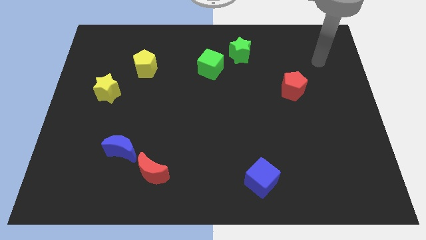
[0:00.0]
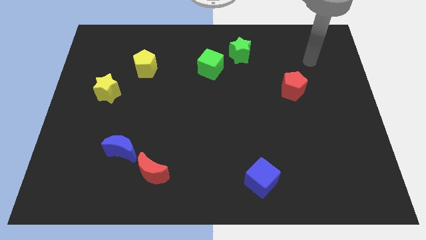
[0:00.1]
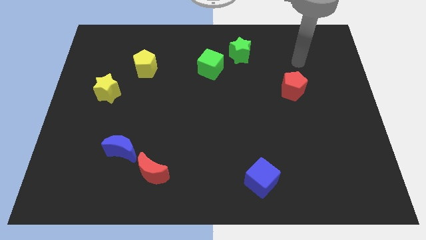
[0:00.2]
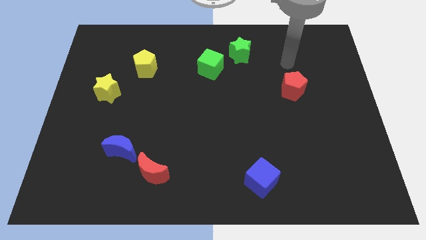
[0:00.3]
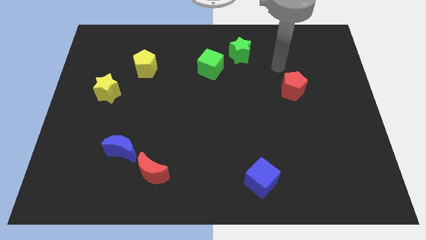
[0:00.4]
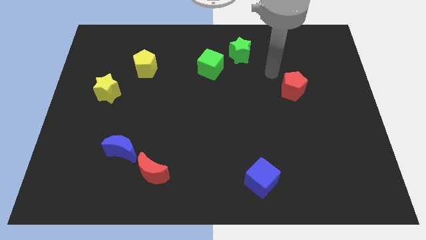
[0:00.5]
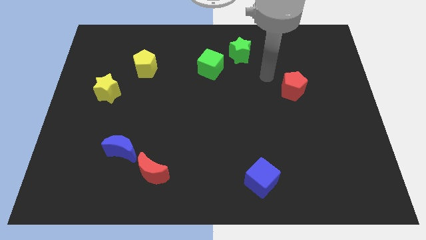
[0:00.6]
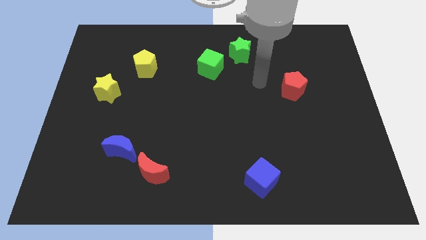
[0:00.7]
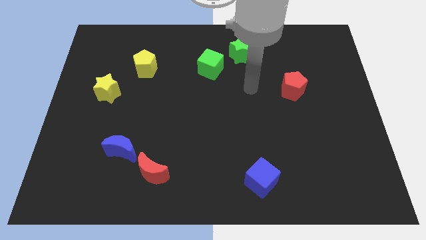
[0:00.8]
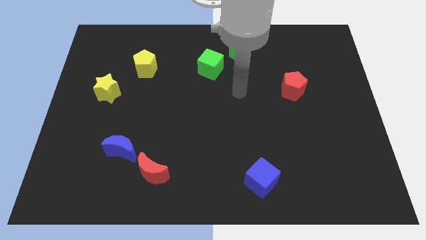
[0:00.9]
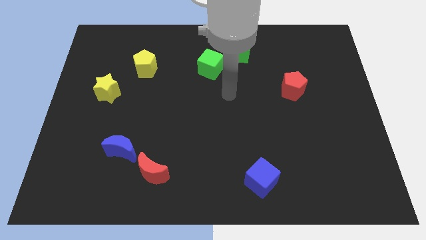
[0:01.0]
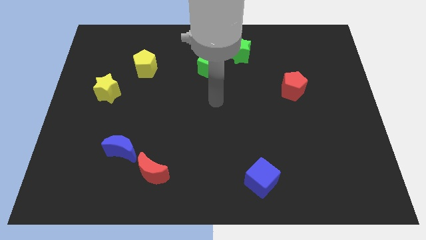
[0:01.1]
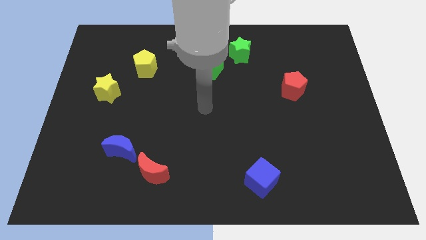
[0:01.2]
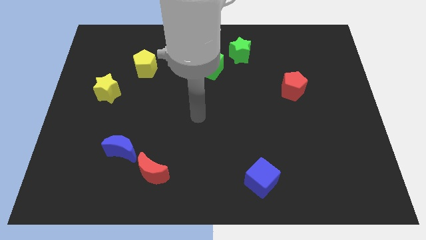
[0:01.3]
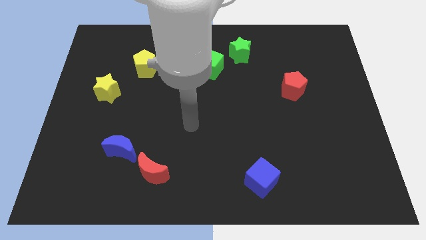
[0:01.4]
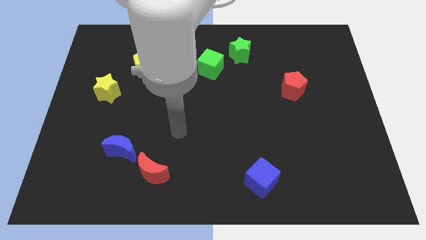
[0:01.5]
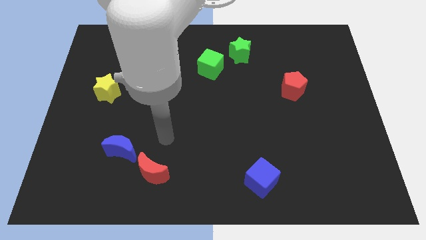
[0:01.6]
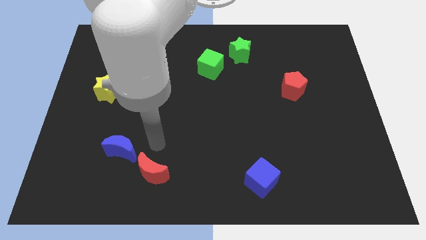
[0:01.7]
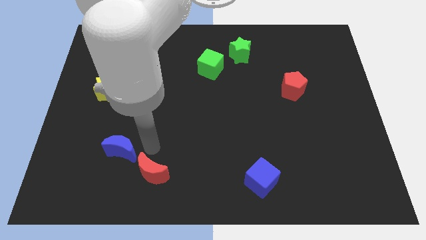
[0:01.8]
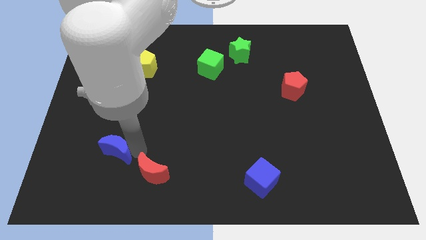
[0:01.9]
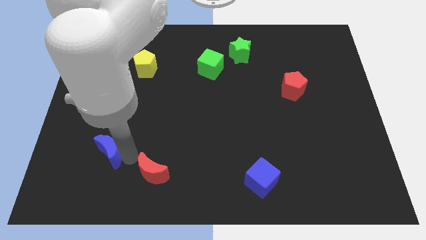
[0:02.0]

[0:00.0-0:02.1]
separate the red moon from the blue moon

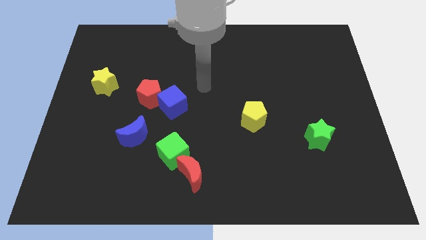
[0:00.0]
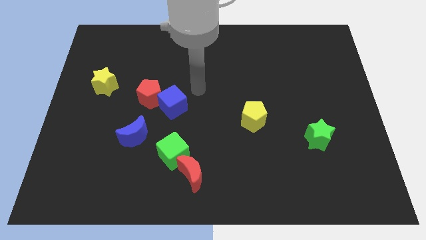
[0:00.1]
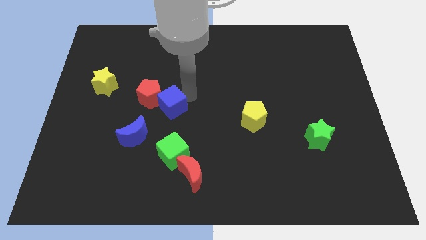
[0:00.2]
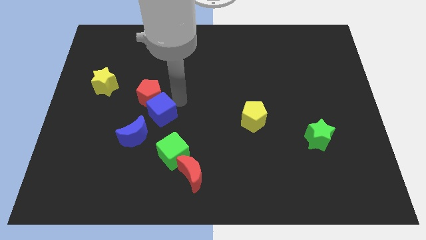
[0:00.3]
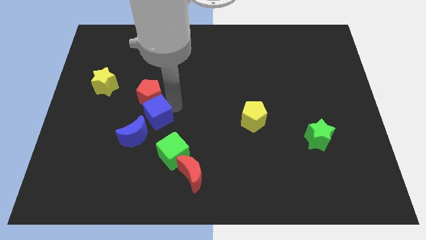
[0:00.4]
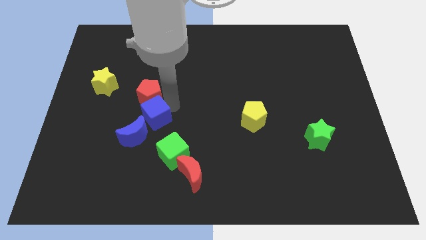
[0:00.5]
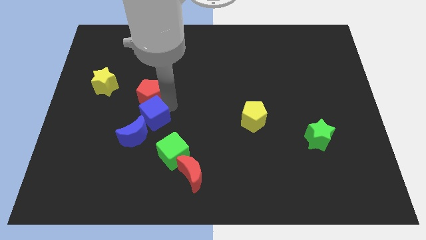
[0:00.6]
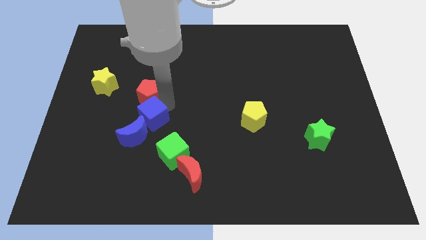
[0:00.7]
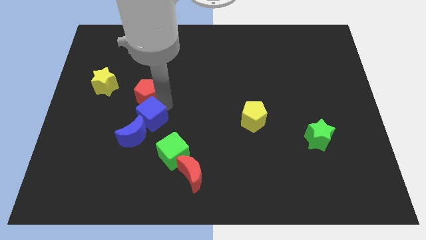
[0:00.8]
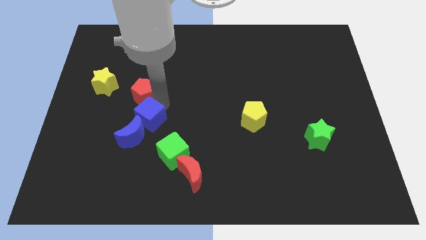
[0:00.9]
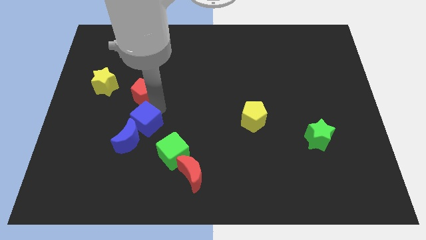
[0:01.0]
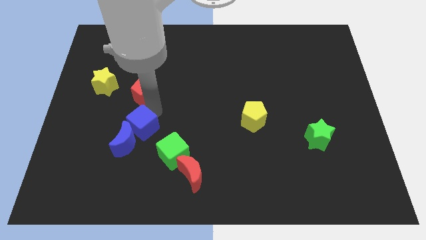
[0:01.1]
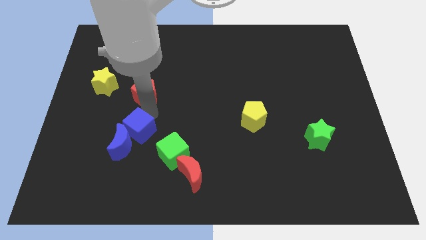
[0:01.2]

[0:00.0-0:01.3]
move the red pentagon away from the blue cube

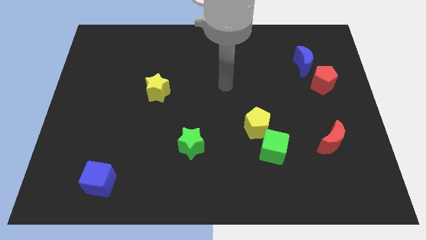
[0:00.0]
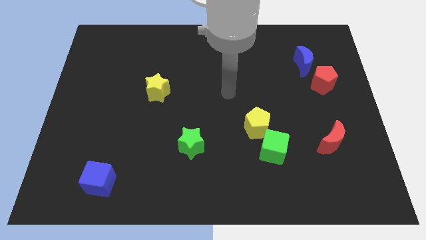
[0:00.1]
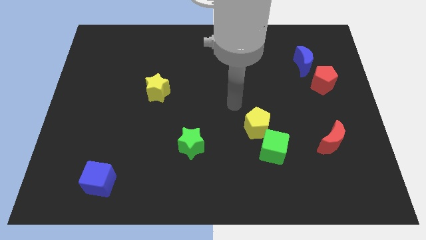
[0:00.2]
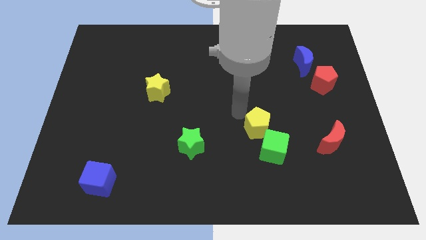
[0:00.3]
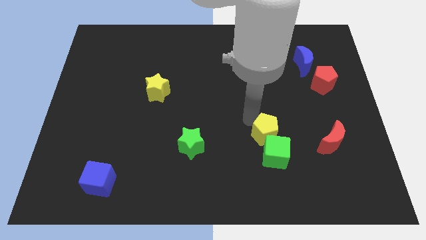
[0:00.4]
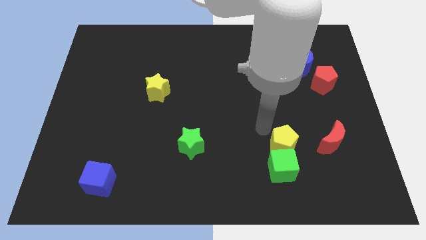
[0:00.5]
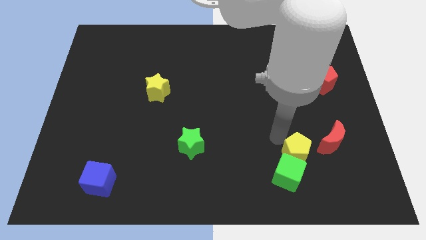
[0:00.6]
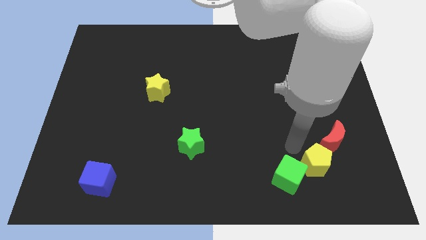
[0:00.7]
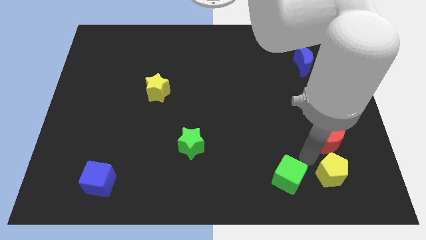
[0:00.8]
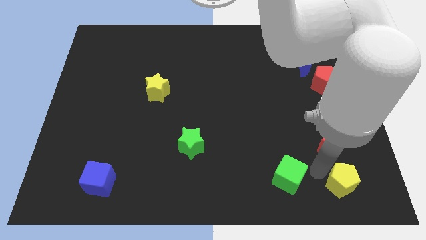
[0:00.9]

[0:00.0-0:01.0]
pull the green cube apart from the yellow pentagon

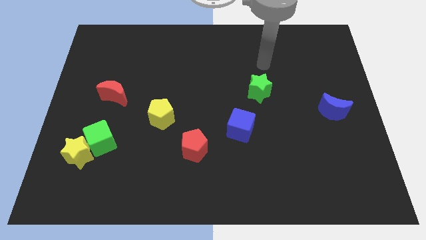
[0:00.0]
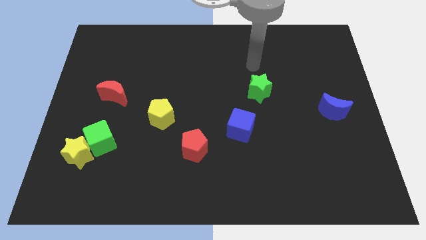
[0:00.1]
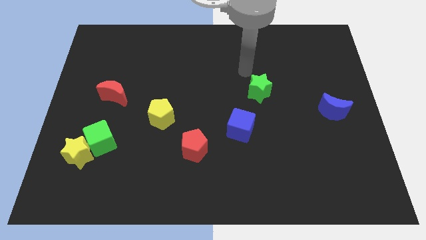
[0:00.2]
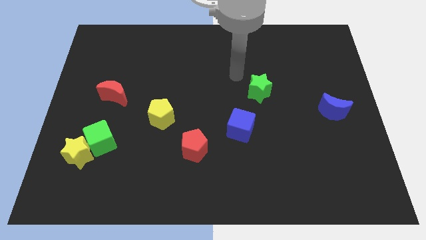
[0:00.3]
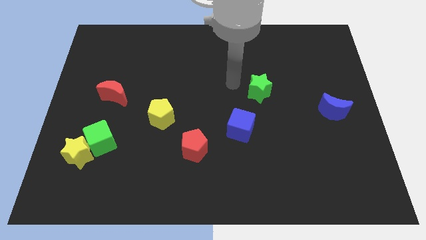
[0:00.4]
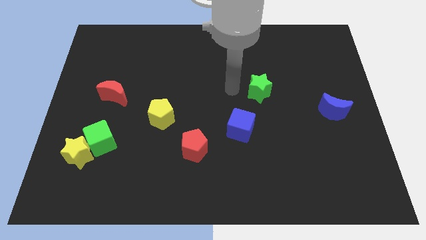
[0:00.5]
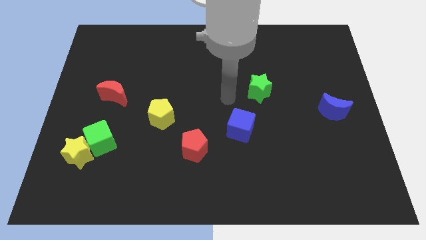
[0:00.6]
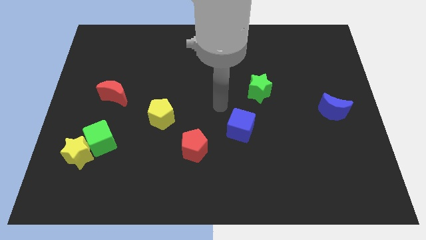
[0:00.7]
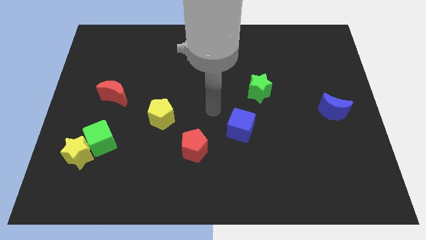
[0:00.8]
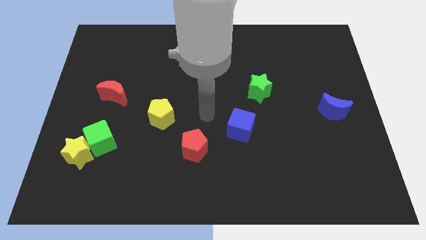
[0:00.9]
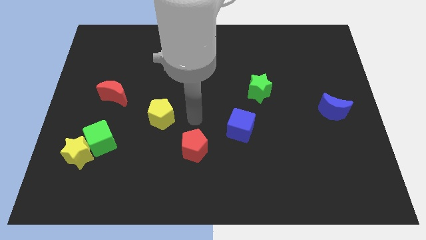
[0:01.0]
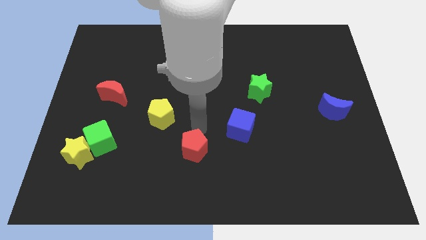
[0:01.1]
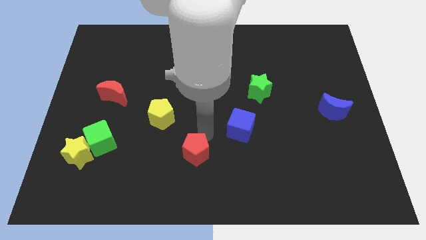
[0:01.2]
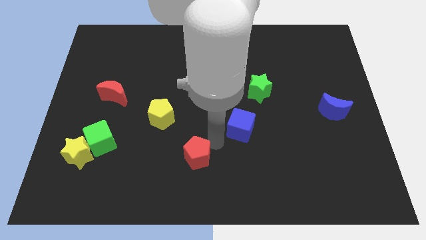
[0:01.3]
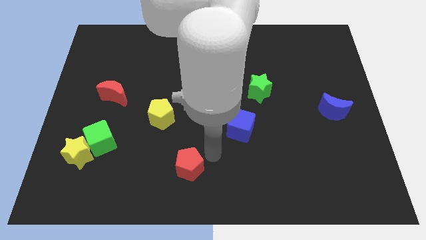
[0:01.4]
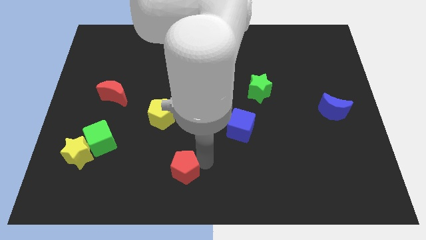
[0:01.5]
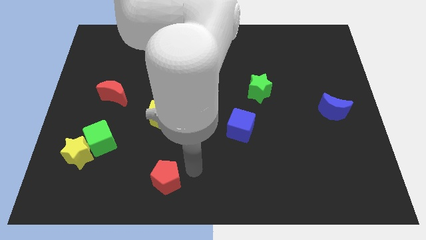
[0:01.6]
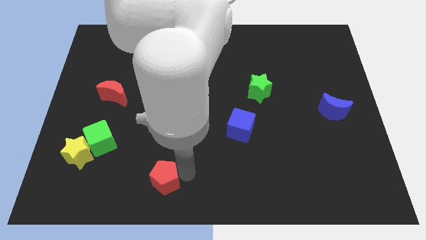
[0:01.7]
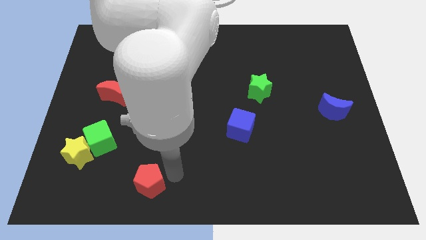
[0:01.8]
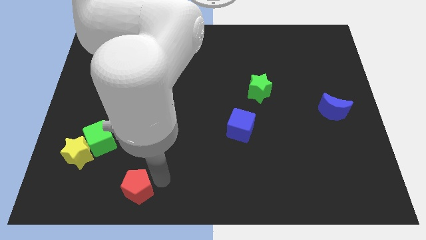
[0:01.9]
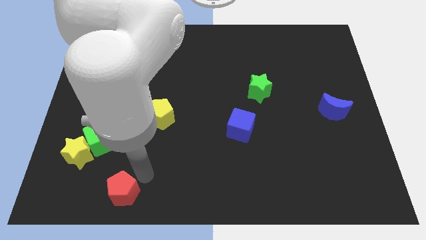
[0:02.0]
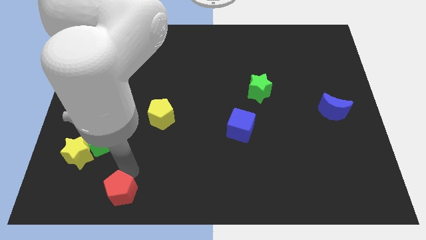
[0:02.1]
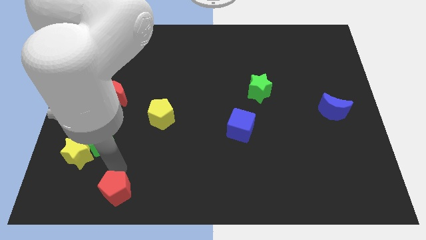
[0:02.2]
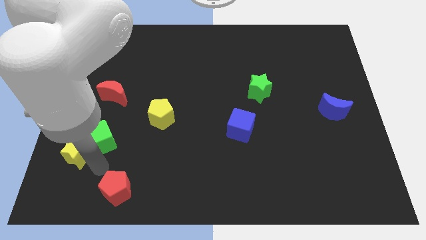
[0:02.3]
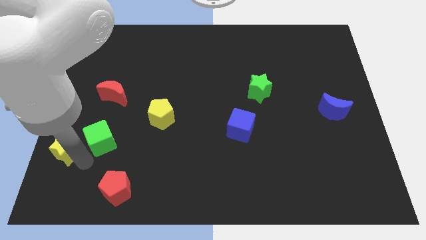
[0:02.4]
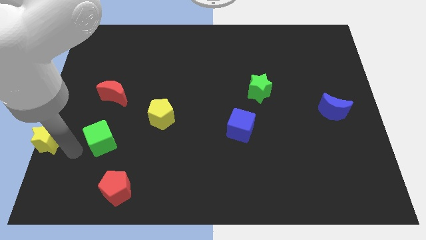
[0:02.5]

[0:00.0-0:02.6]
pull the green cube apart from the yellow star

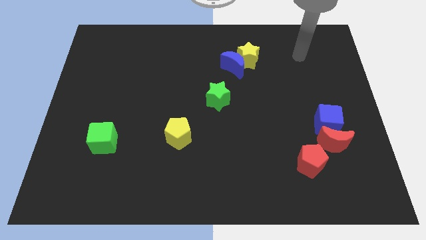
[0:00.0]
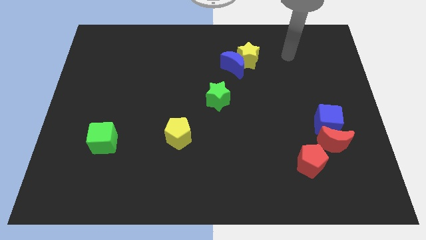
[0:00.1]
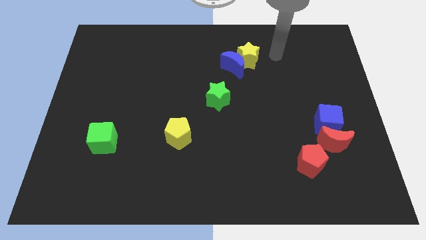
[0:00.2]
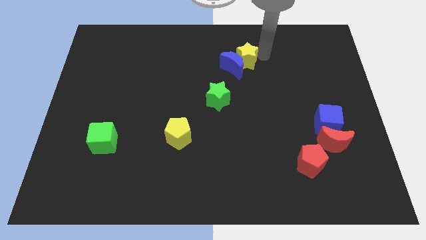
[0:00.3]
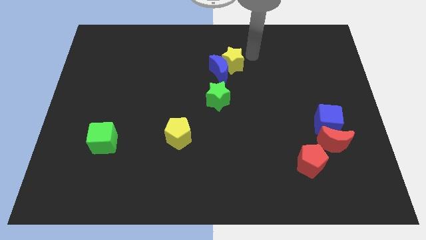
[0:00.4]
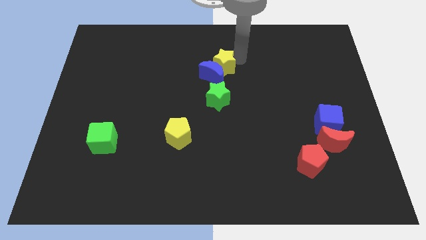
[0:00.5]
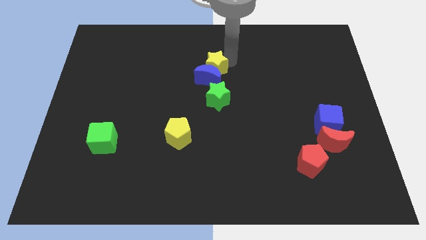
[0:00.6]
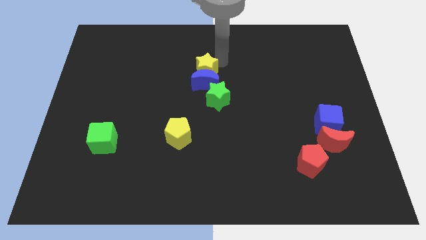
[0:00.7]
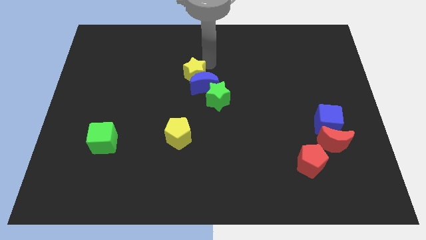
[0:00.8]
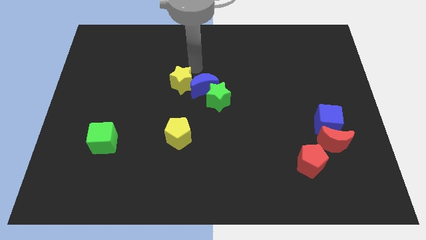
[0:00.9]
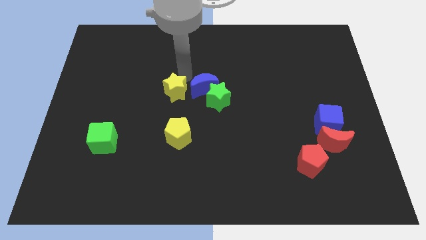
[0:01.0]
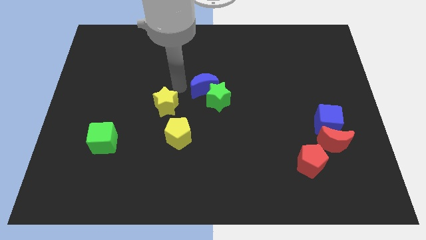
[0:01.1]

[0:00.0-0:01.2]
separate the blue moon from the yellow star

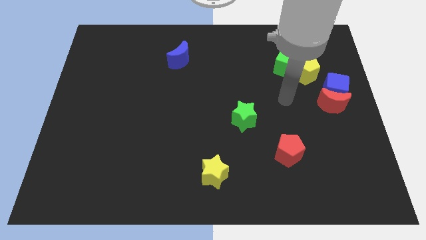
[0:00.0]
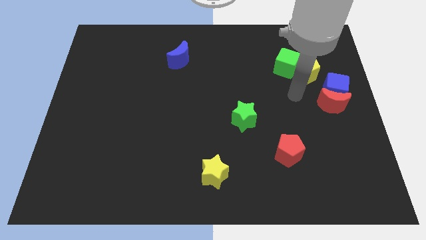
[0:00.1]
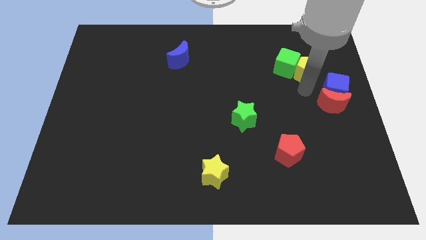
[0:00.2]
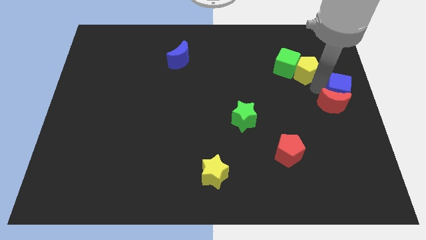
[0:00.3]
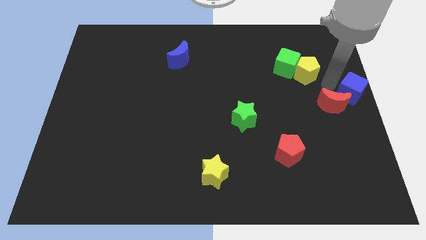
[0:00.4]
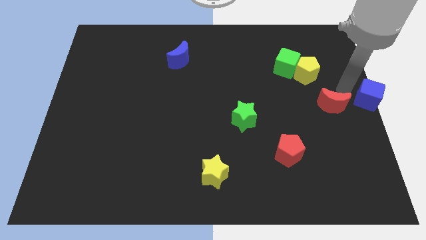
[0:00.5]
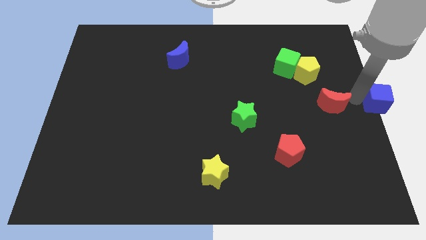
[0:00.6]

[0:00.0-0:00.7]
pull the red moon apart from the blue cube

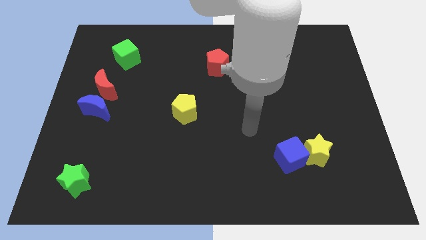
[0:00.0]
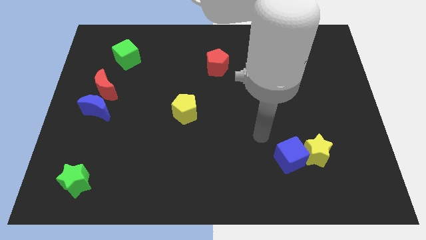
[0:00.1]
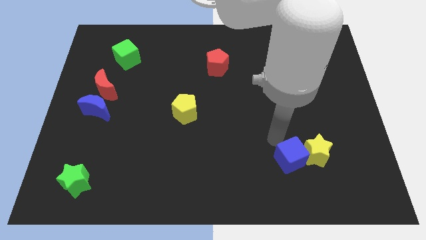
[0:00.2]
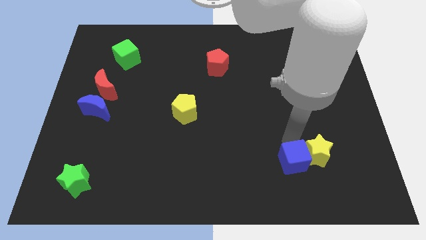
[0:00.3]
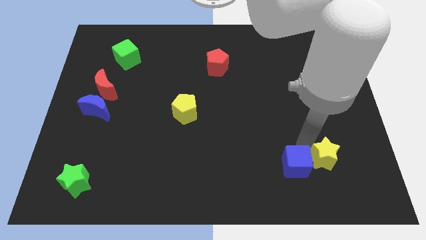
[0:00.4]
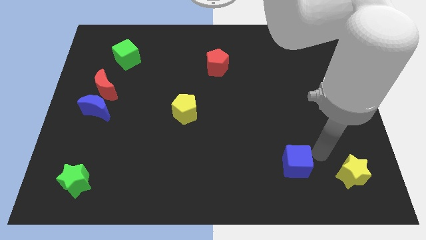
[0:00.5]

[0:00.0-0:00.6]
pull the blue cube apart from the yellow star
